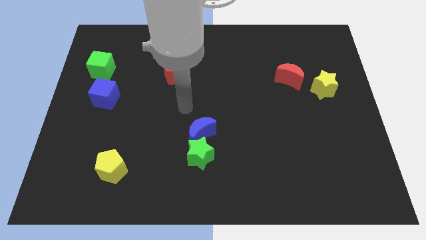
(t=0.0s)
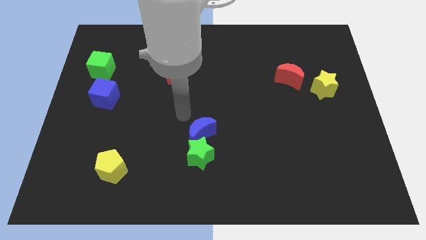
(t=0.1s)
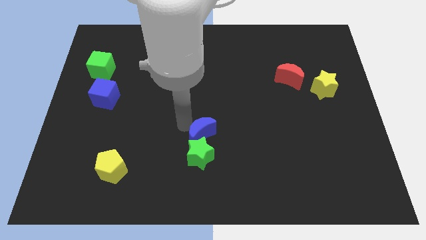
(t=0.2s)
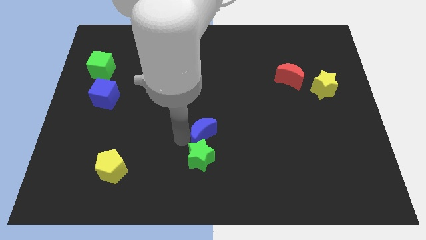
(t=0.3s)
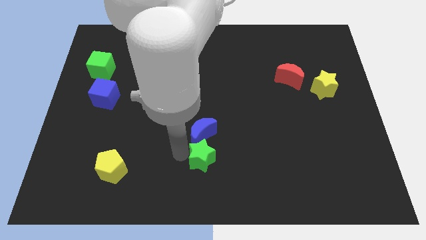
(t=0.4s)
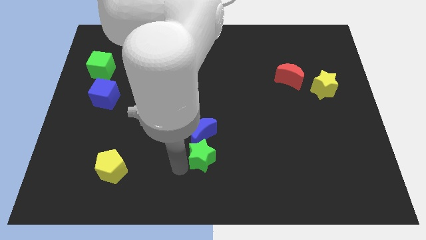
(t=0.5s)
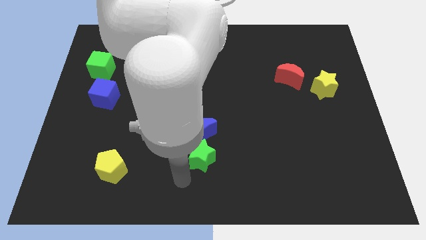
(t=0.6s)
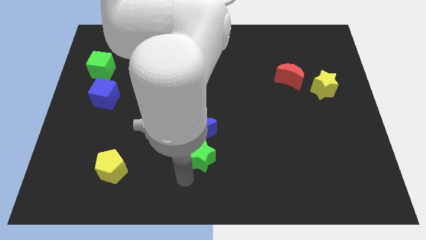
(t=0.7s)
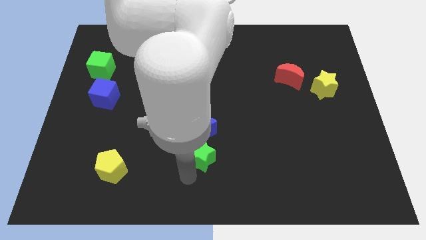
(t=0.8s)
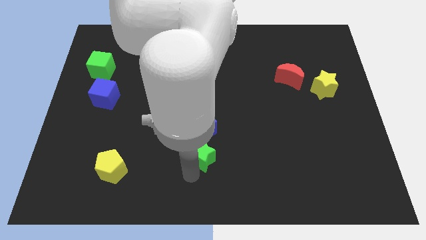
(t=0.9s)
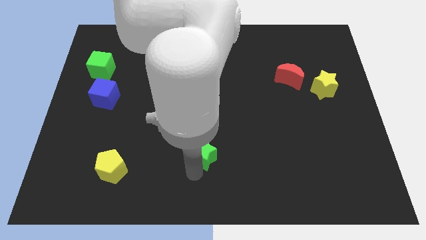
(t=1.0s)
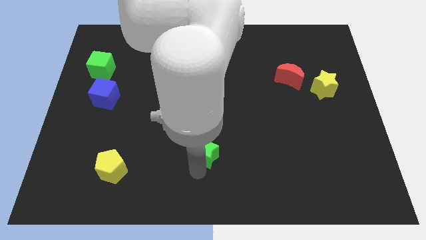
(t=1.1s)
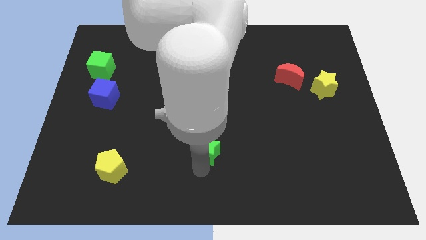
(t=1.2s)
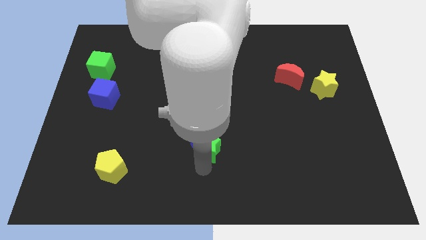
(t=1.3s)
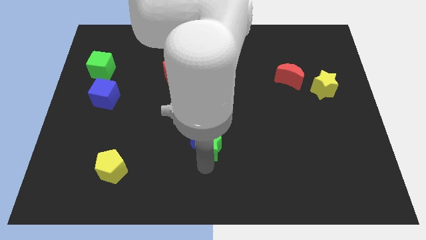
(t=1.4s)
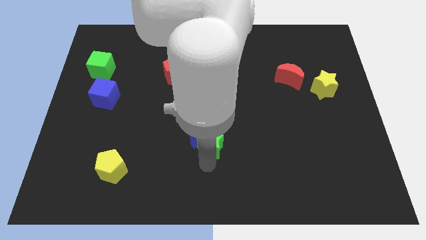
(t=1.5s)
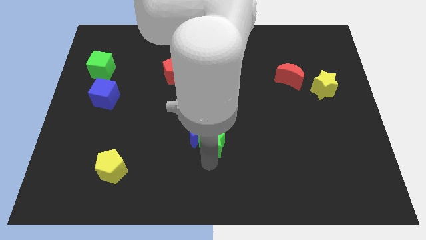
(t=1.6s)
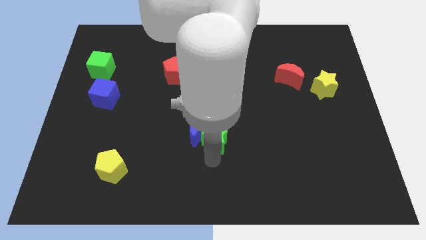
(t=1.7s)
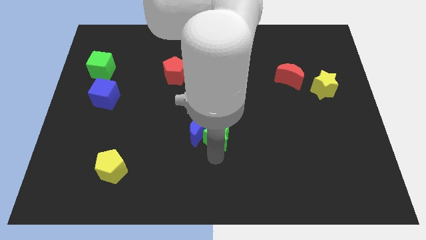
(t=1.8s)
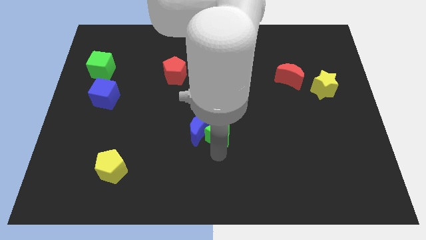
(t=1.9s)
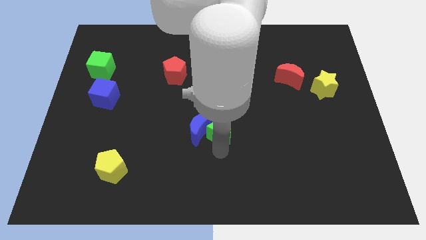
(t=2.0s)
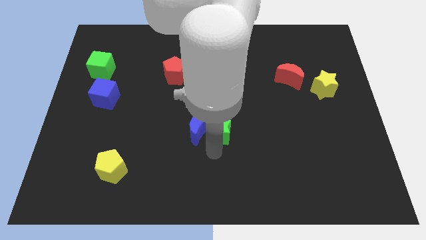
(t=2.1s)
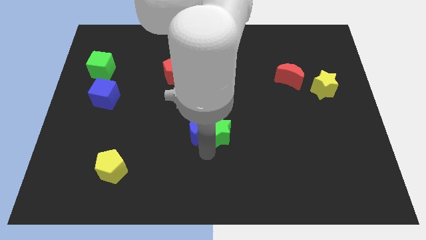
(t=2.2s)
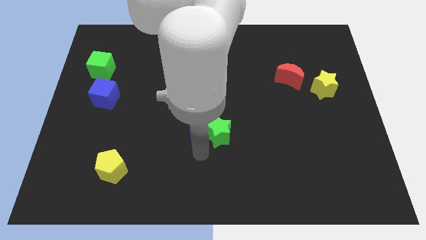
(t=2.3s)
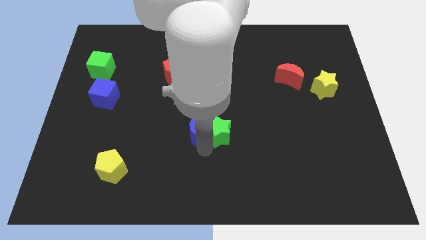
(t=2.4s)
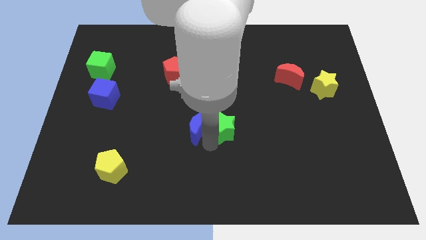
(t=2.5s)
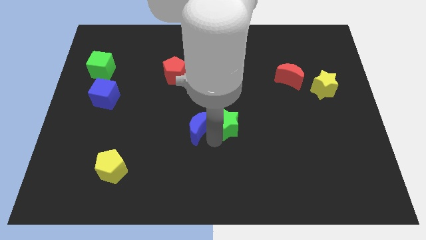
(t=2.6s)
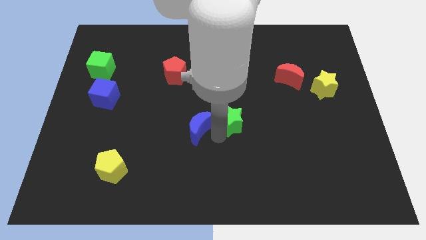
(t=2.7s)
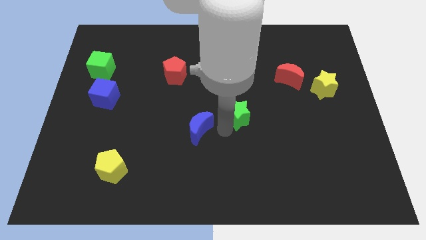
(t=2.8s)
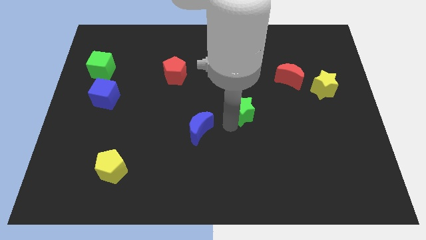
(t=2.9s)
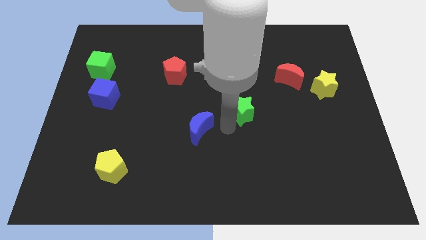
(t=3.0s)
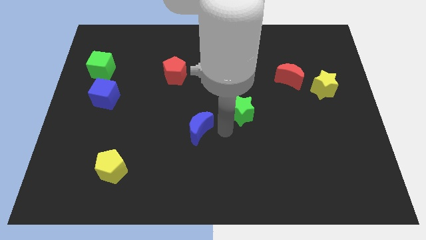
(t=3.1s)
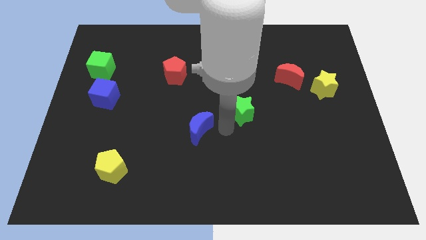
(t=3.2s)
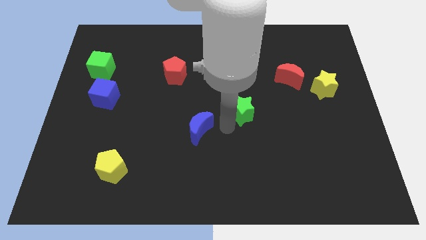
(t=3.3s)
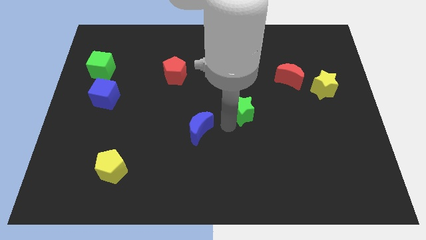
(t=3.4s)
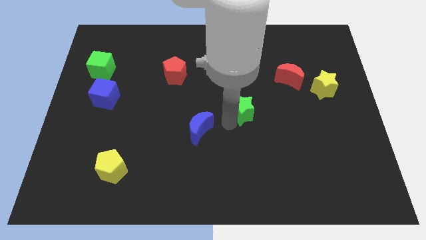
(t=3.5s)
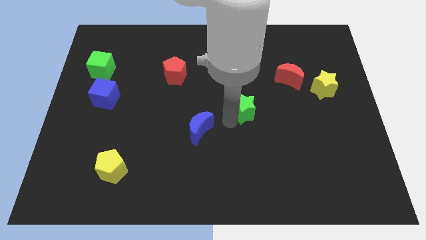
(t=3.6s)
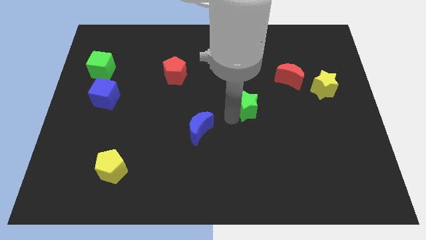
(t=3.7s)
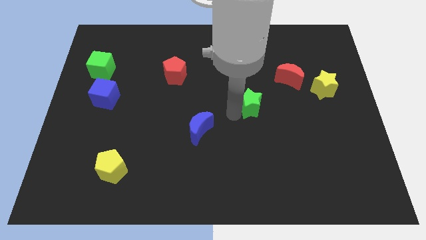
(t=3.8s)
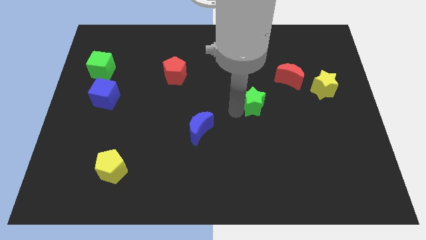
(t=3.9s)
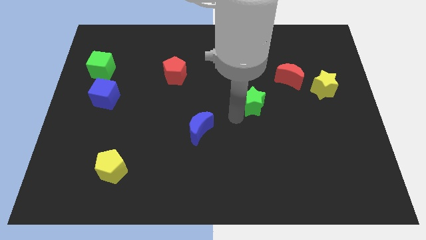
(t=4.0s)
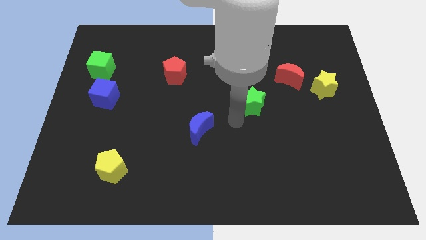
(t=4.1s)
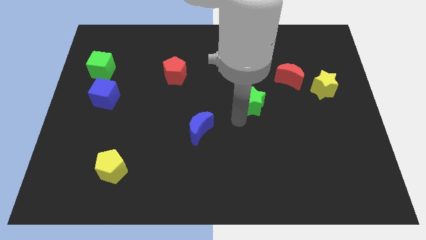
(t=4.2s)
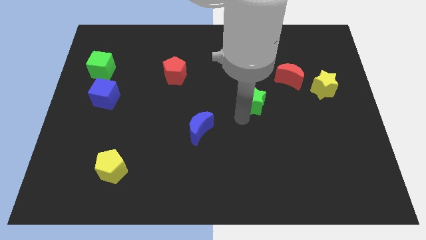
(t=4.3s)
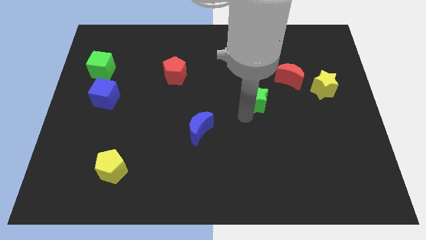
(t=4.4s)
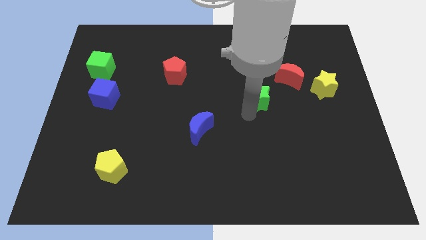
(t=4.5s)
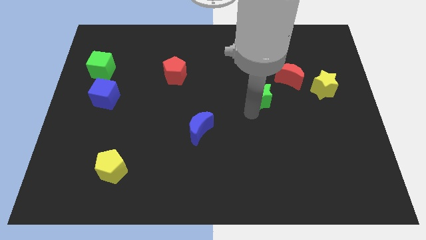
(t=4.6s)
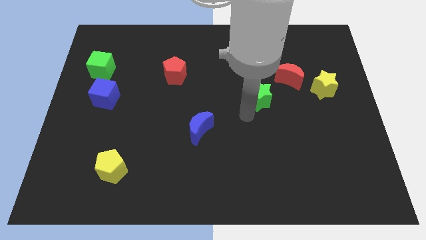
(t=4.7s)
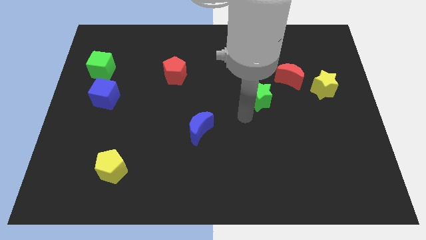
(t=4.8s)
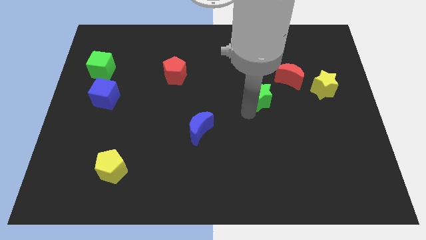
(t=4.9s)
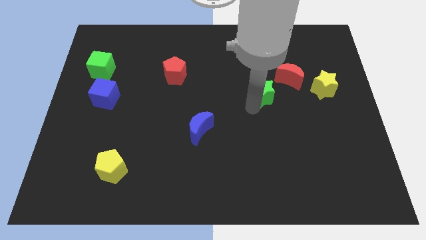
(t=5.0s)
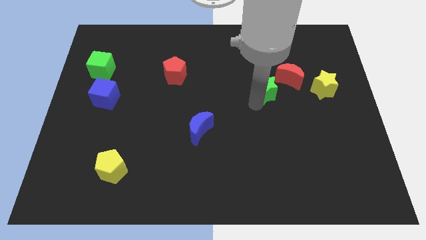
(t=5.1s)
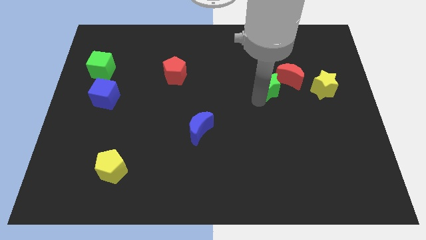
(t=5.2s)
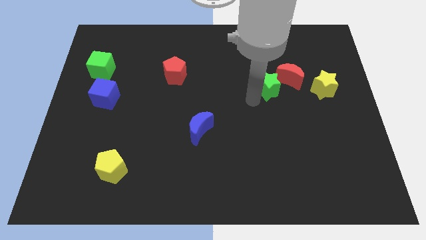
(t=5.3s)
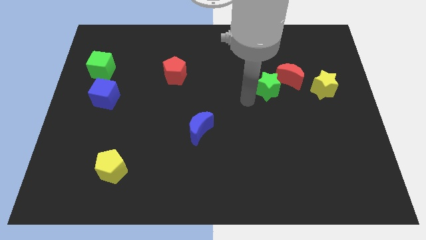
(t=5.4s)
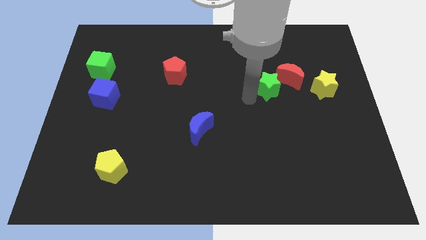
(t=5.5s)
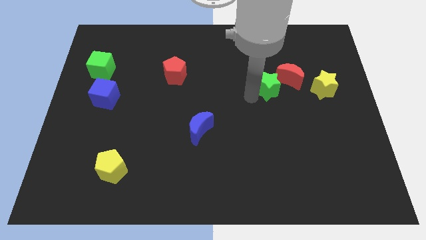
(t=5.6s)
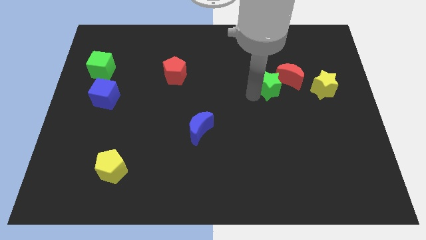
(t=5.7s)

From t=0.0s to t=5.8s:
push the green star towards the red moon

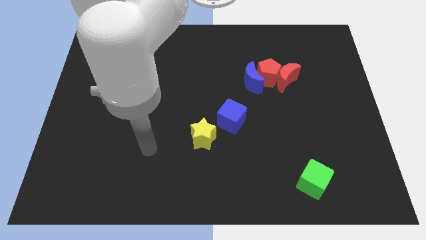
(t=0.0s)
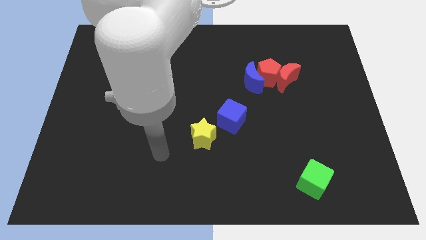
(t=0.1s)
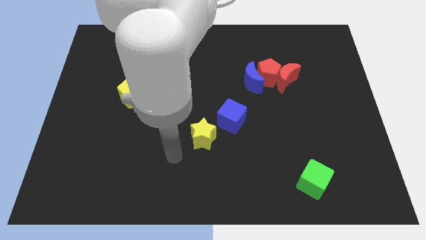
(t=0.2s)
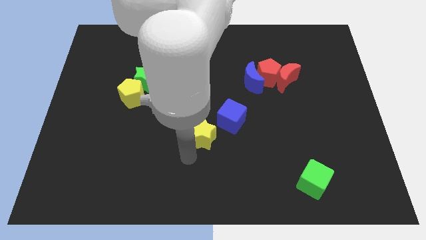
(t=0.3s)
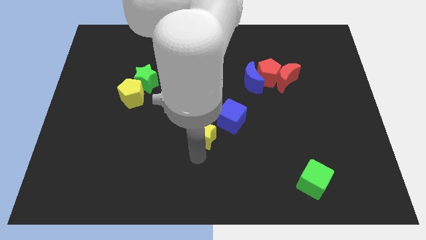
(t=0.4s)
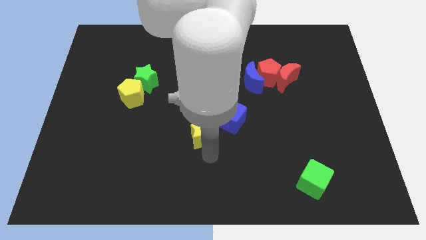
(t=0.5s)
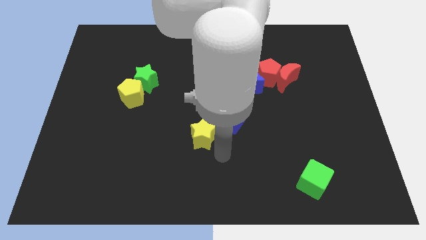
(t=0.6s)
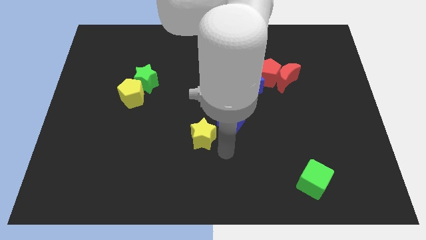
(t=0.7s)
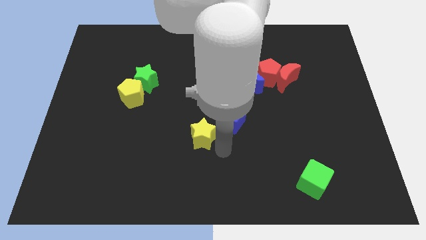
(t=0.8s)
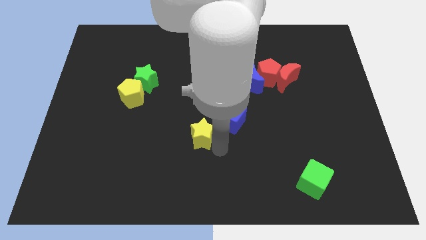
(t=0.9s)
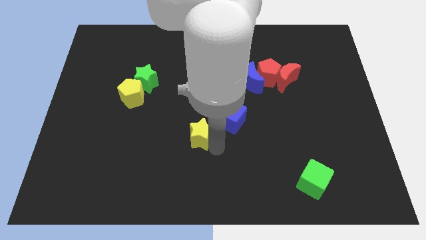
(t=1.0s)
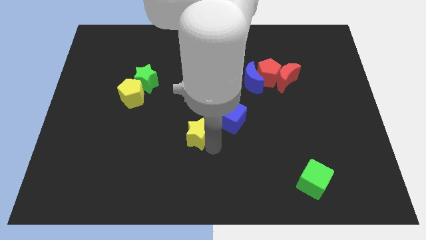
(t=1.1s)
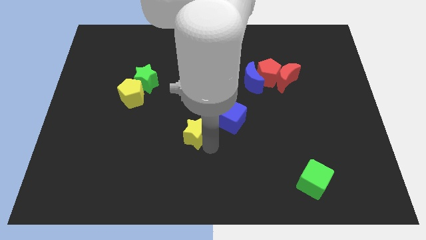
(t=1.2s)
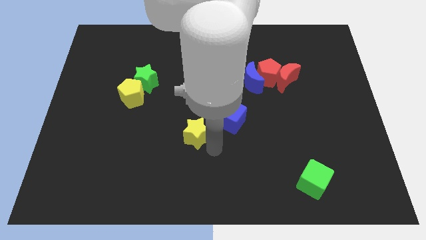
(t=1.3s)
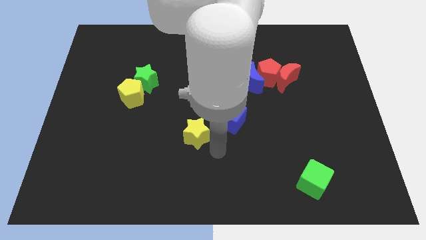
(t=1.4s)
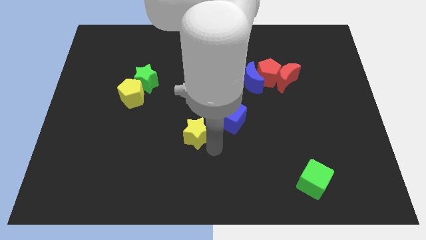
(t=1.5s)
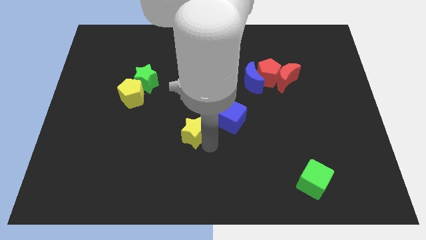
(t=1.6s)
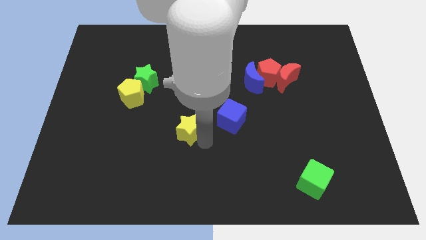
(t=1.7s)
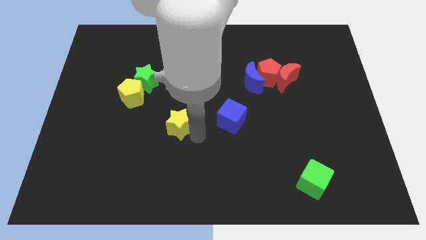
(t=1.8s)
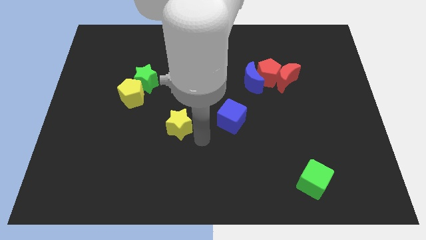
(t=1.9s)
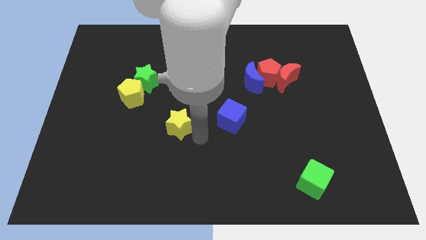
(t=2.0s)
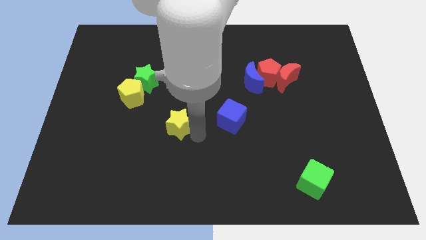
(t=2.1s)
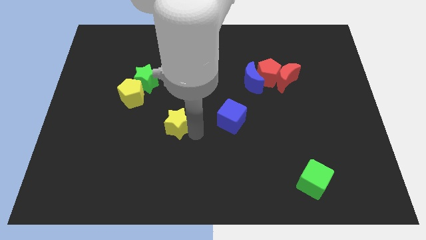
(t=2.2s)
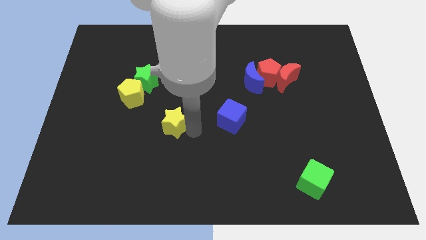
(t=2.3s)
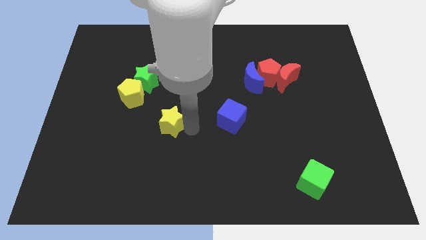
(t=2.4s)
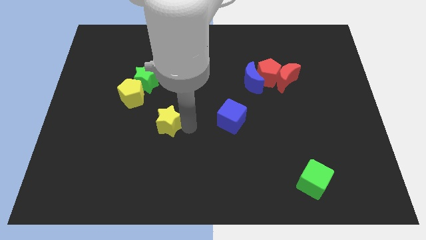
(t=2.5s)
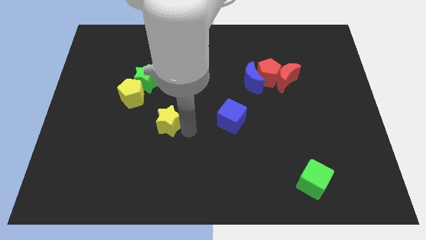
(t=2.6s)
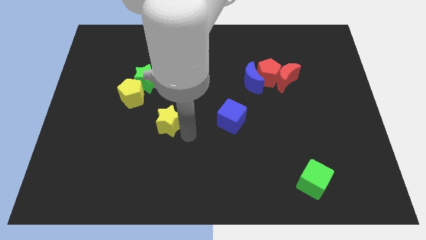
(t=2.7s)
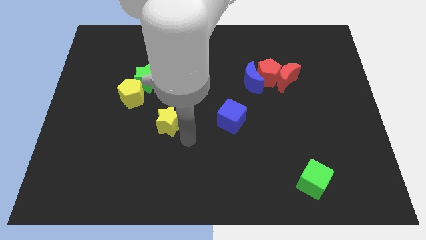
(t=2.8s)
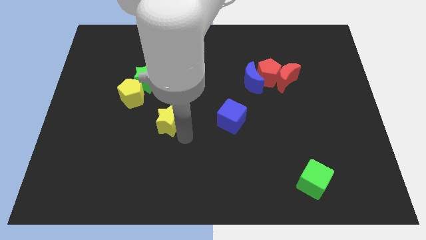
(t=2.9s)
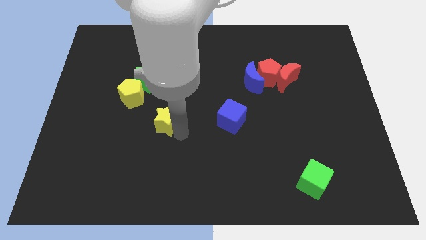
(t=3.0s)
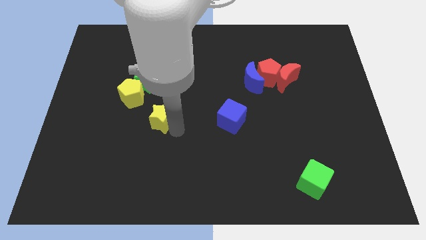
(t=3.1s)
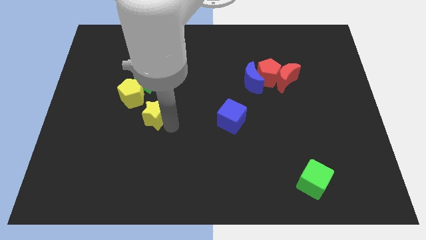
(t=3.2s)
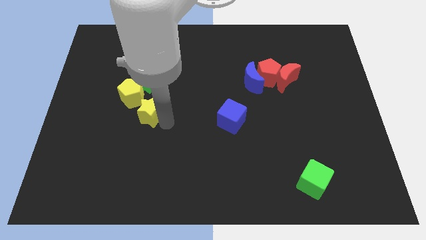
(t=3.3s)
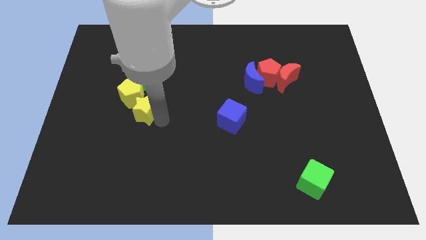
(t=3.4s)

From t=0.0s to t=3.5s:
move the yellow star to the yellow pentagon
